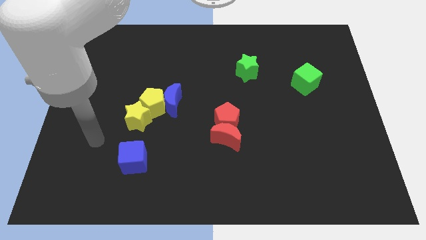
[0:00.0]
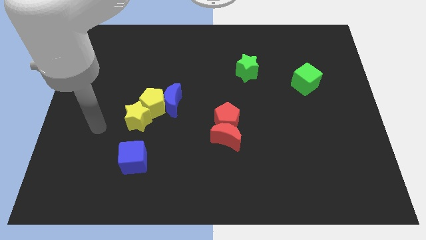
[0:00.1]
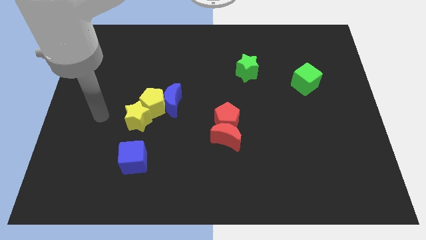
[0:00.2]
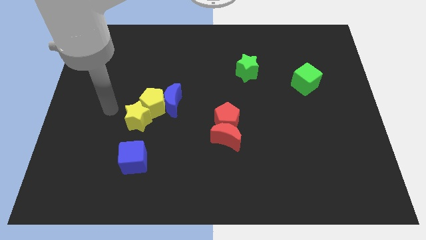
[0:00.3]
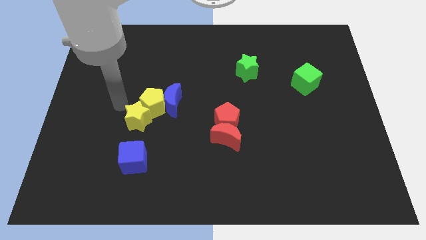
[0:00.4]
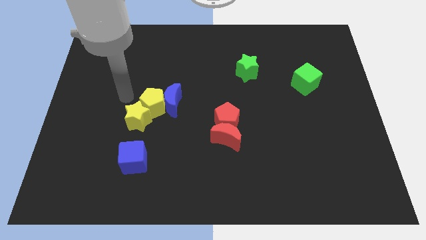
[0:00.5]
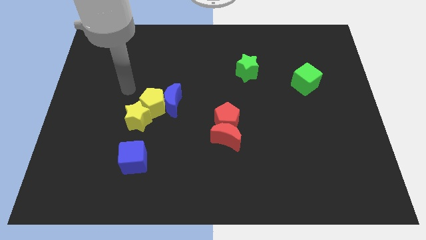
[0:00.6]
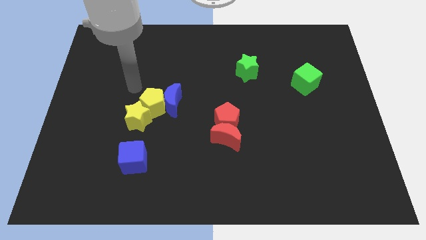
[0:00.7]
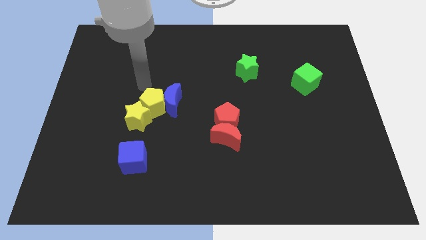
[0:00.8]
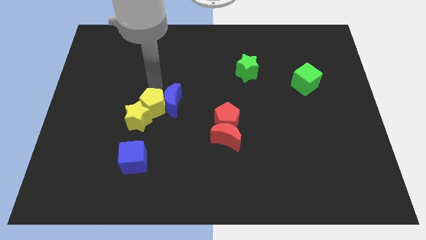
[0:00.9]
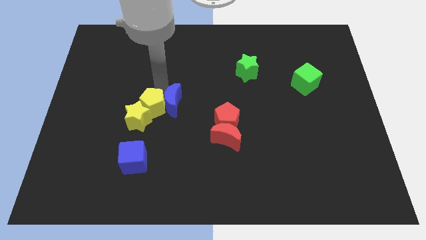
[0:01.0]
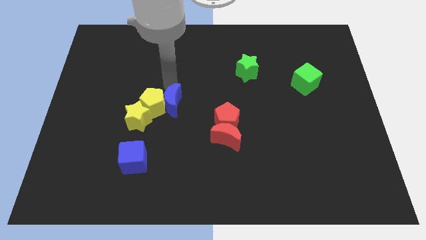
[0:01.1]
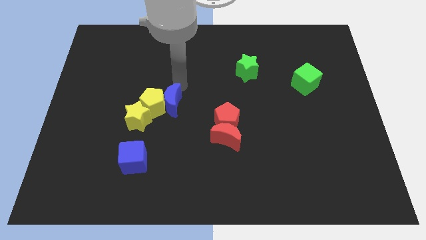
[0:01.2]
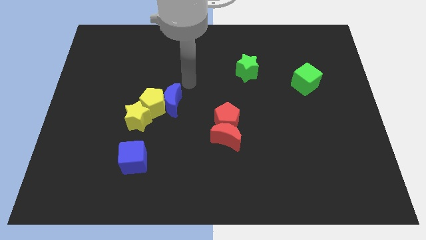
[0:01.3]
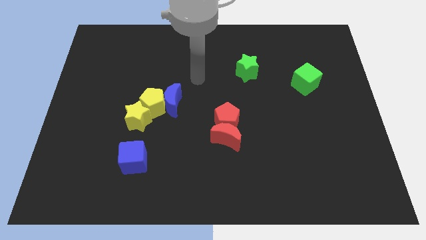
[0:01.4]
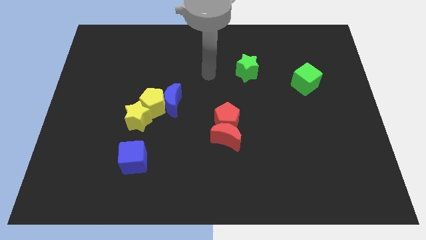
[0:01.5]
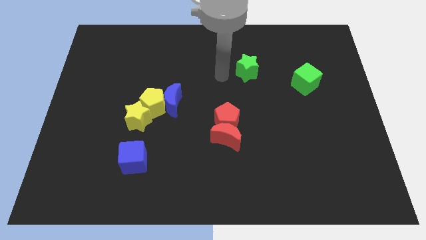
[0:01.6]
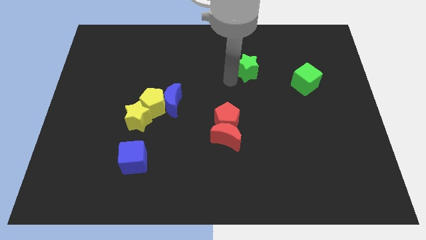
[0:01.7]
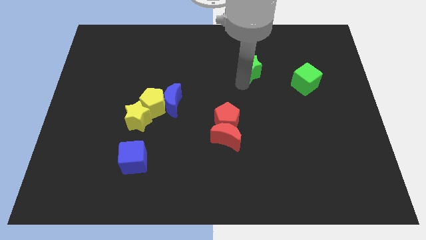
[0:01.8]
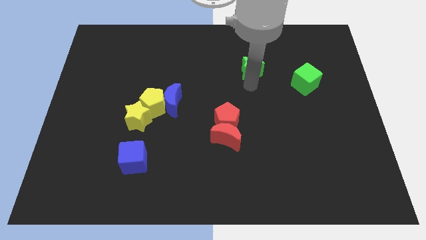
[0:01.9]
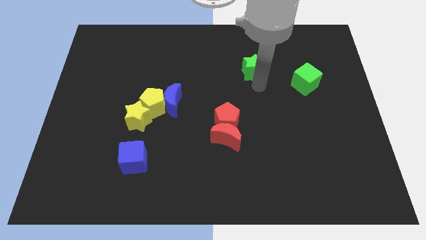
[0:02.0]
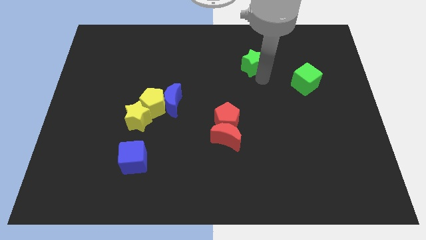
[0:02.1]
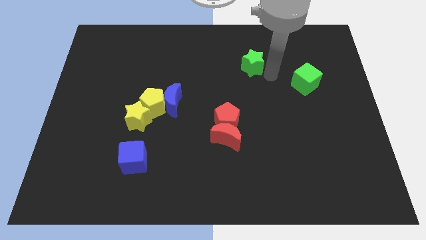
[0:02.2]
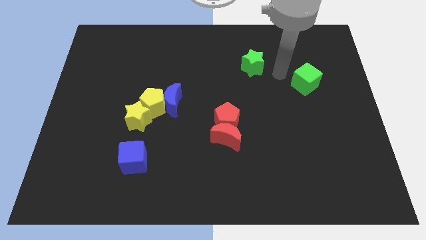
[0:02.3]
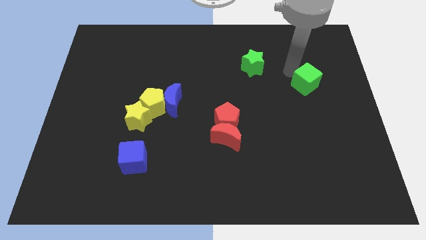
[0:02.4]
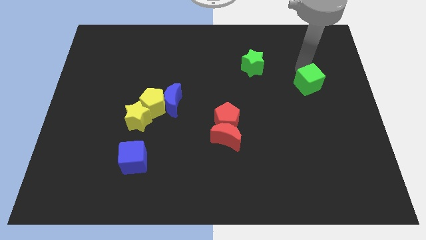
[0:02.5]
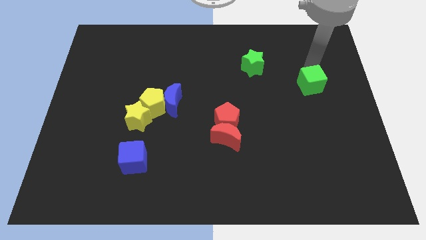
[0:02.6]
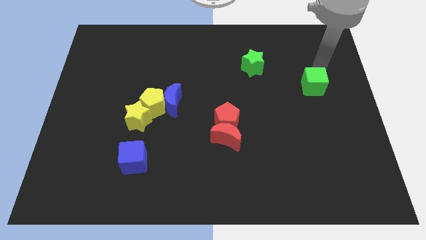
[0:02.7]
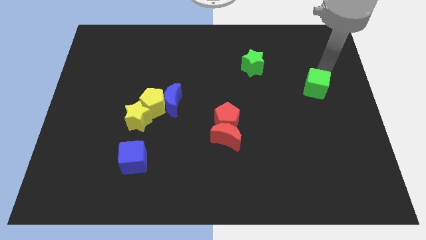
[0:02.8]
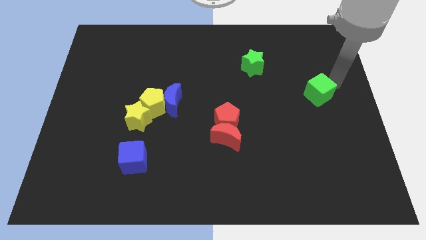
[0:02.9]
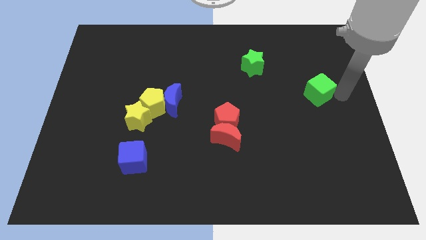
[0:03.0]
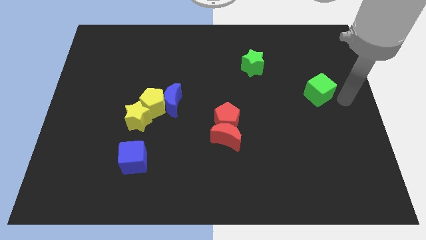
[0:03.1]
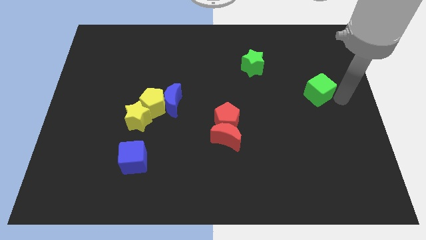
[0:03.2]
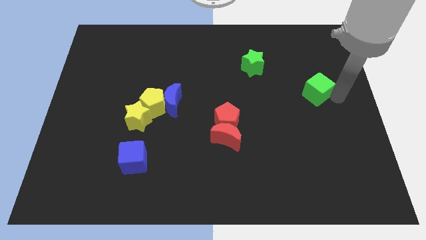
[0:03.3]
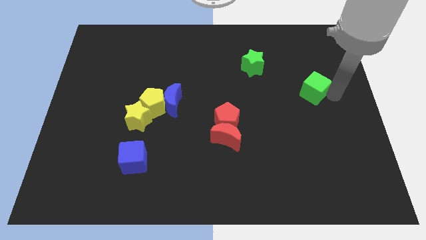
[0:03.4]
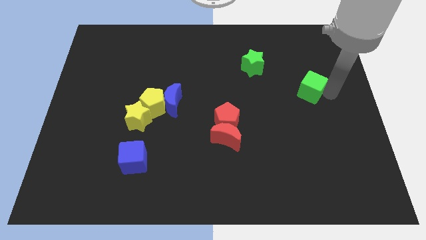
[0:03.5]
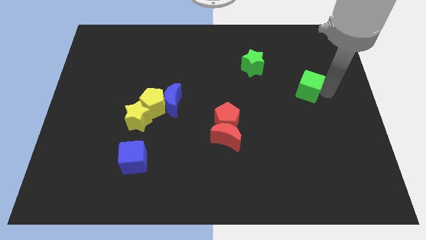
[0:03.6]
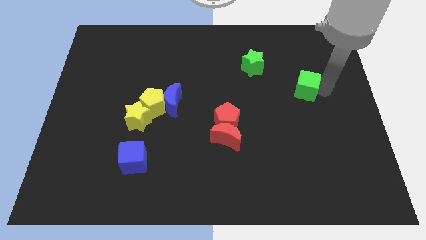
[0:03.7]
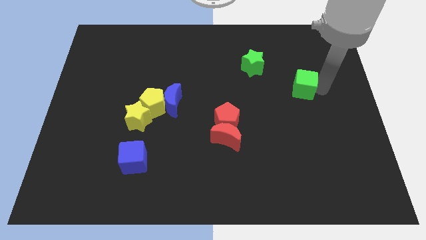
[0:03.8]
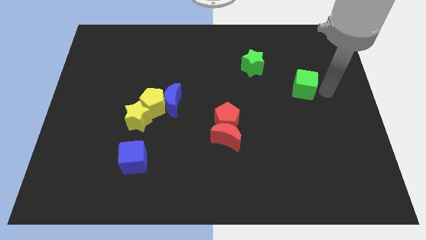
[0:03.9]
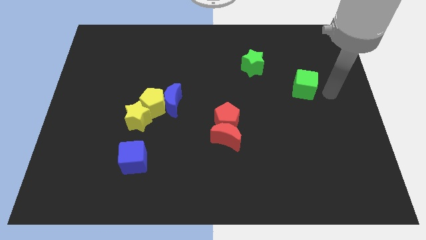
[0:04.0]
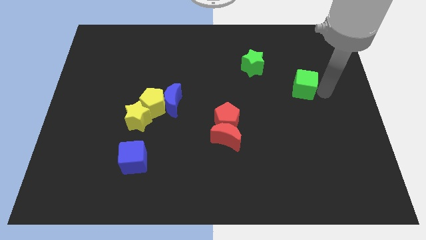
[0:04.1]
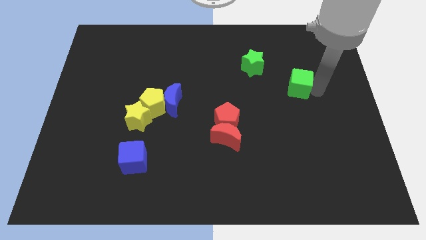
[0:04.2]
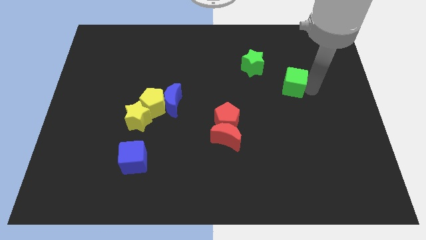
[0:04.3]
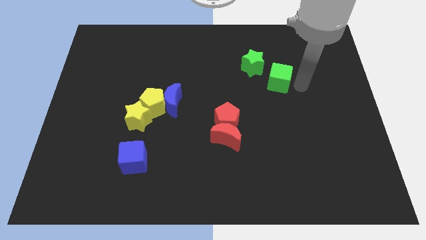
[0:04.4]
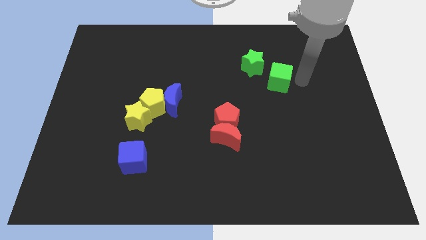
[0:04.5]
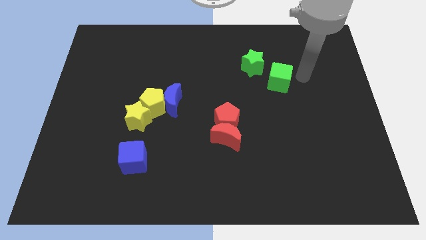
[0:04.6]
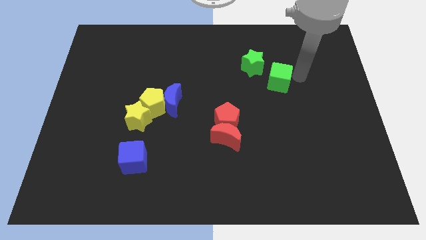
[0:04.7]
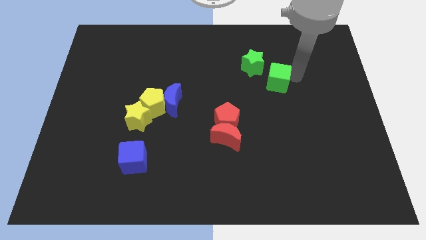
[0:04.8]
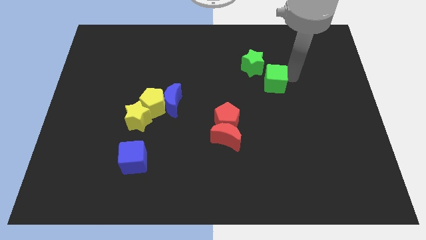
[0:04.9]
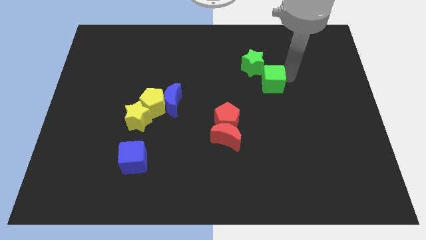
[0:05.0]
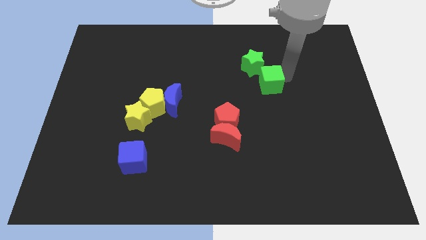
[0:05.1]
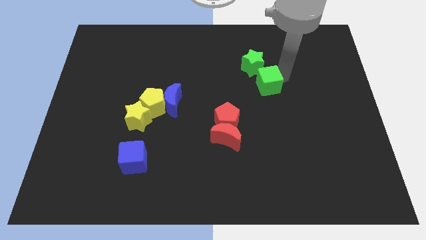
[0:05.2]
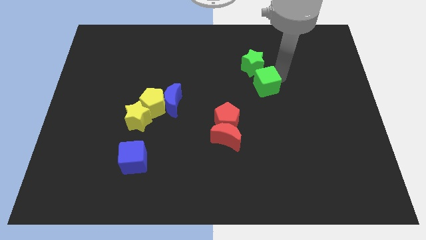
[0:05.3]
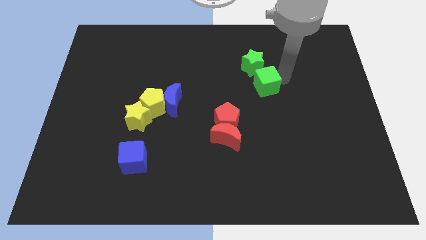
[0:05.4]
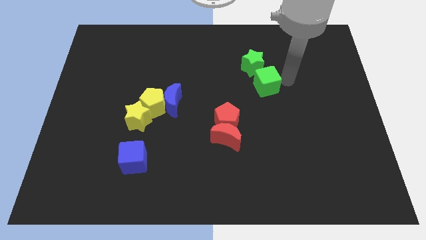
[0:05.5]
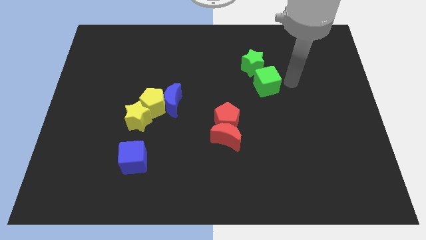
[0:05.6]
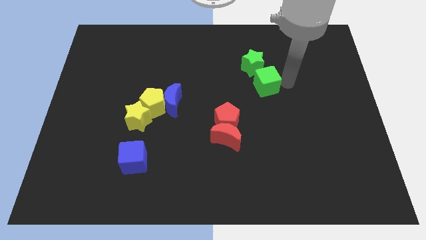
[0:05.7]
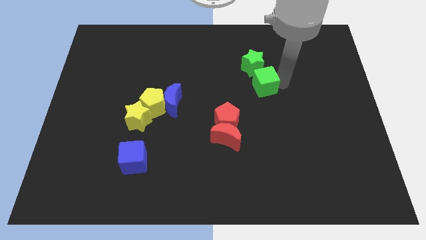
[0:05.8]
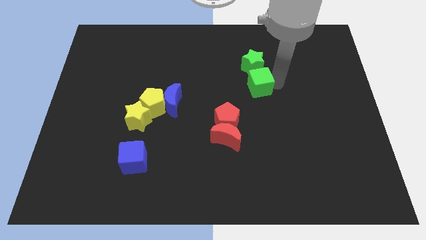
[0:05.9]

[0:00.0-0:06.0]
put the green cube to the center of the board

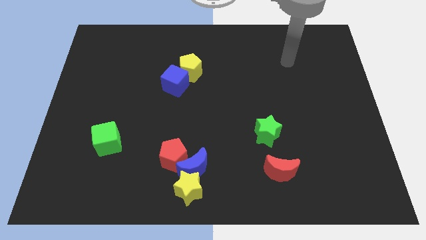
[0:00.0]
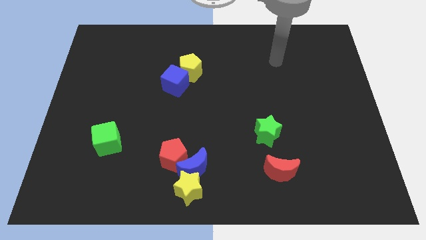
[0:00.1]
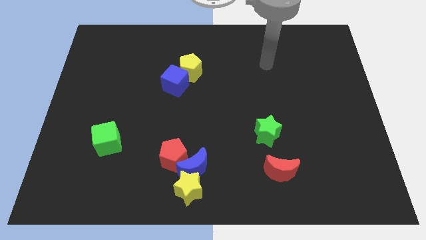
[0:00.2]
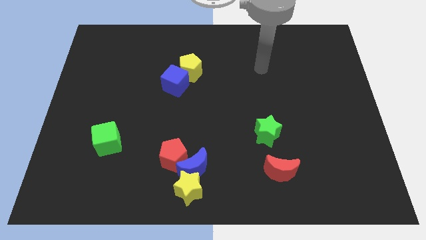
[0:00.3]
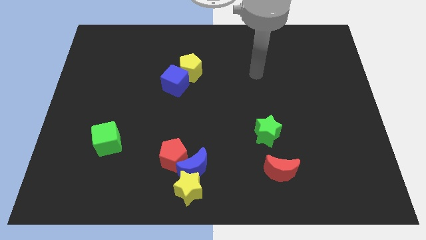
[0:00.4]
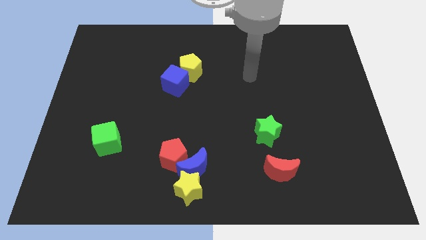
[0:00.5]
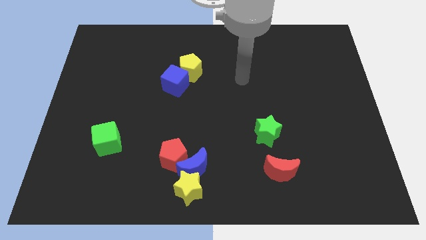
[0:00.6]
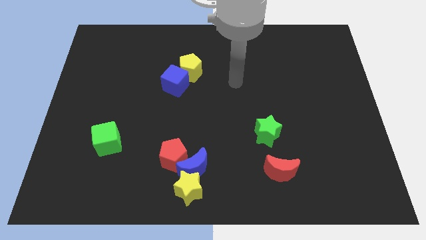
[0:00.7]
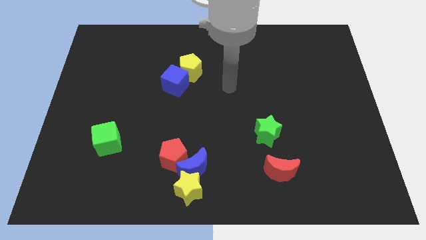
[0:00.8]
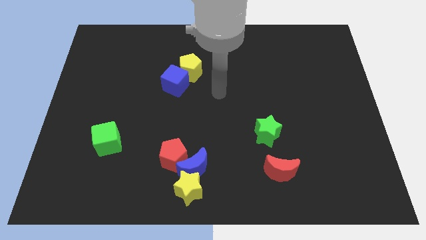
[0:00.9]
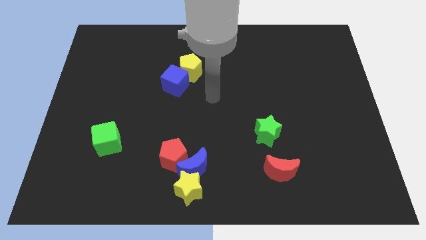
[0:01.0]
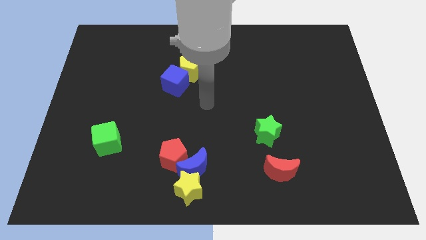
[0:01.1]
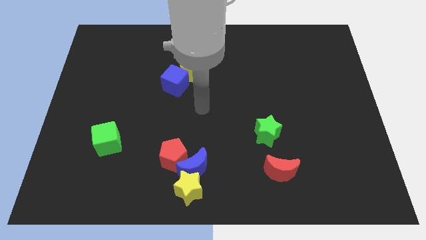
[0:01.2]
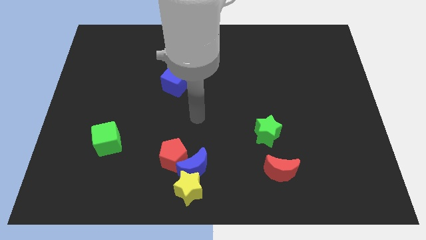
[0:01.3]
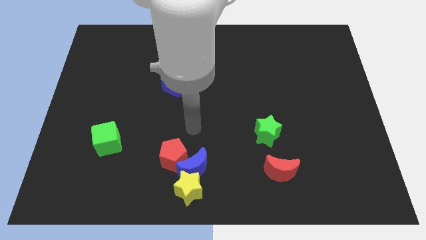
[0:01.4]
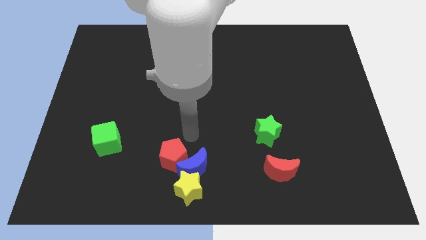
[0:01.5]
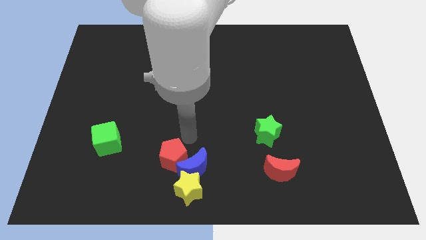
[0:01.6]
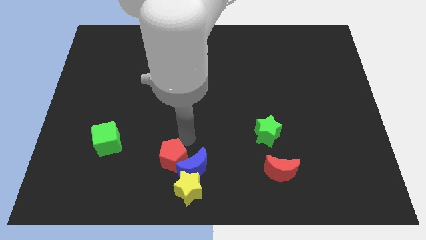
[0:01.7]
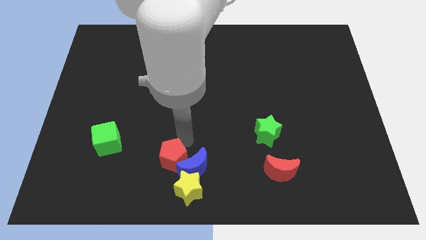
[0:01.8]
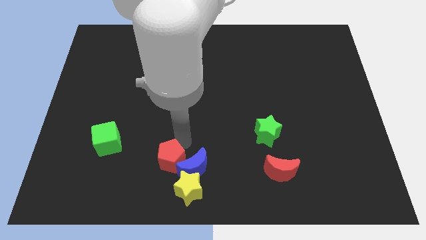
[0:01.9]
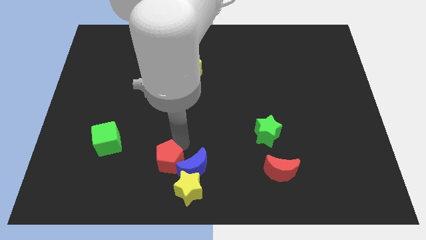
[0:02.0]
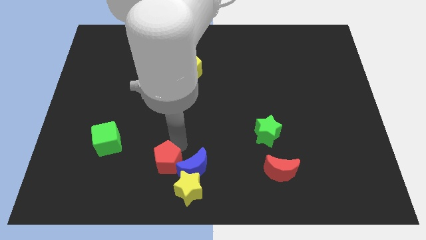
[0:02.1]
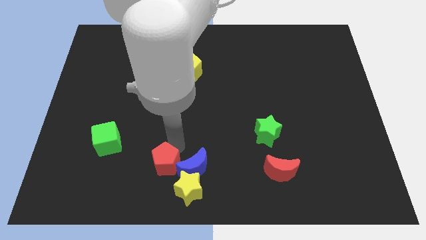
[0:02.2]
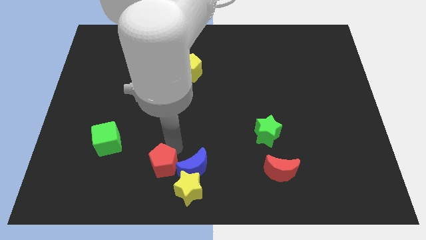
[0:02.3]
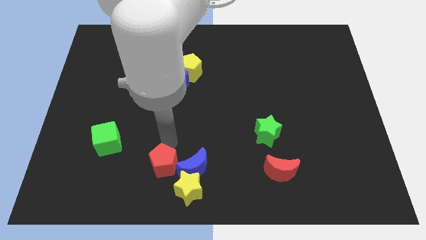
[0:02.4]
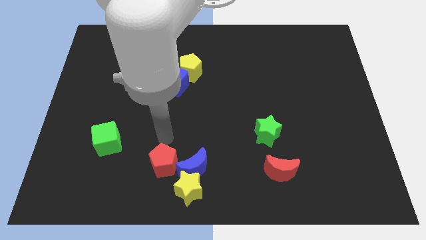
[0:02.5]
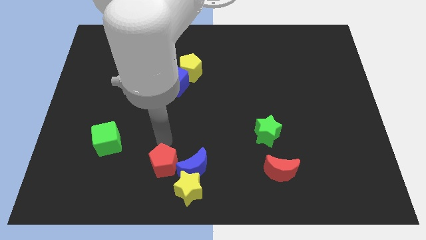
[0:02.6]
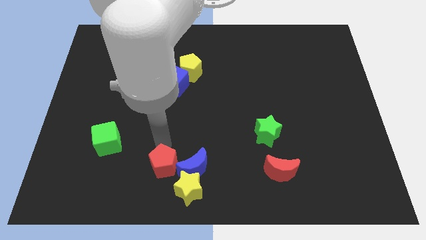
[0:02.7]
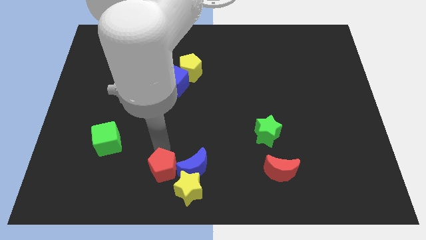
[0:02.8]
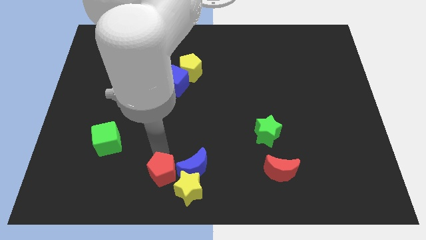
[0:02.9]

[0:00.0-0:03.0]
put the red pentagon to the bottom
